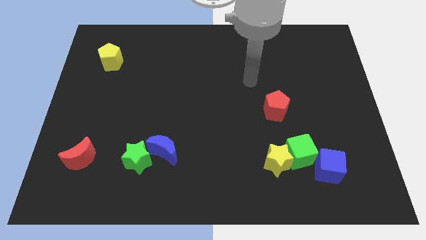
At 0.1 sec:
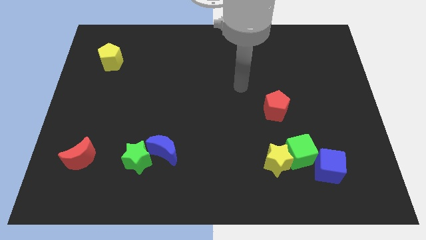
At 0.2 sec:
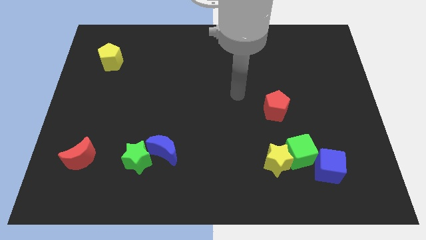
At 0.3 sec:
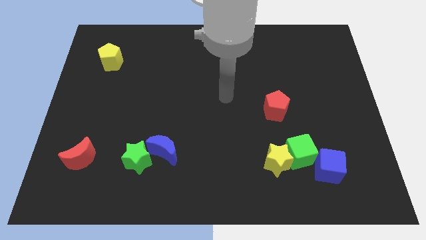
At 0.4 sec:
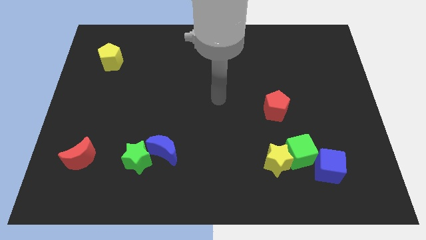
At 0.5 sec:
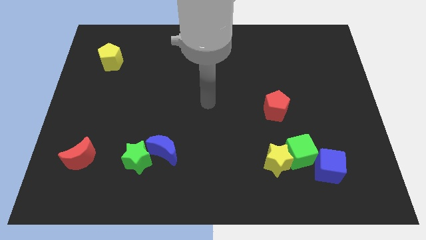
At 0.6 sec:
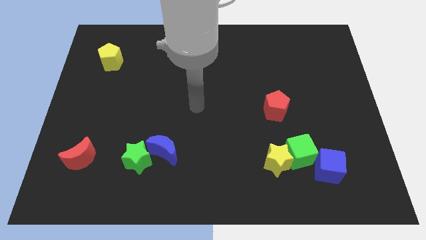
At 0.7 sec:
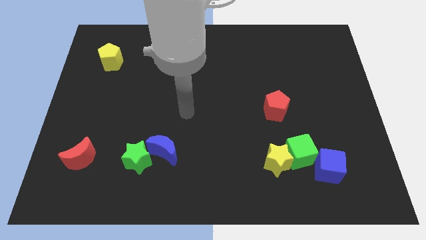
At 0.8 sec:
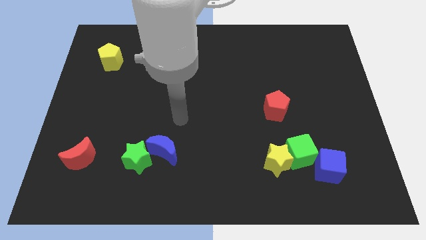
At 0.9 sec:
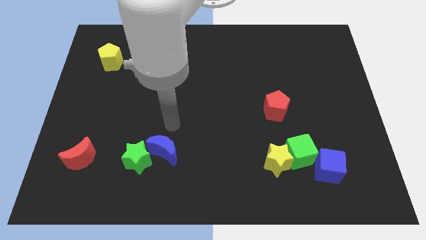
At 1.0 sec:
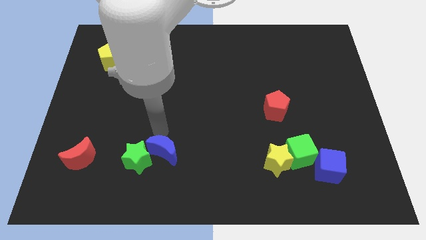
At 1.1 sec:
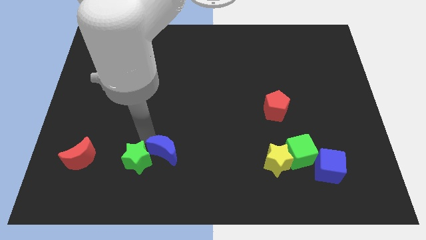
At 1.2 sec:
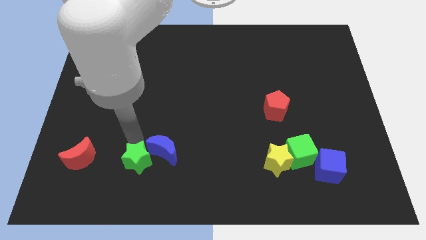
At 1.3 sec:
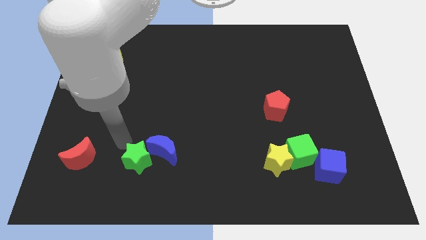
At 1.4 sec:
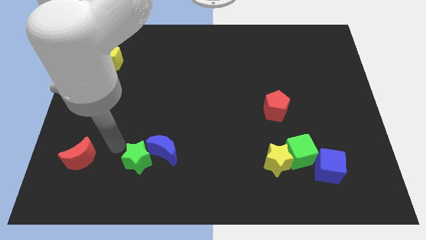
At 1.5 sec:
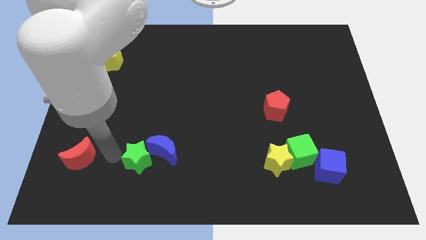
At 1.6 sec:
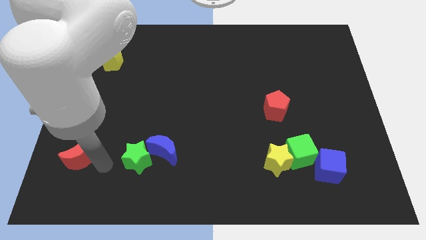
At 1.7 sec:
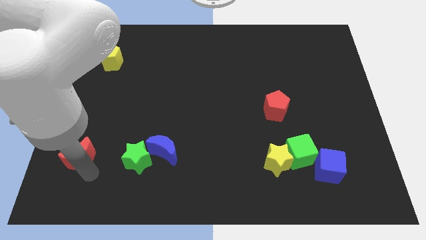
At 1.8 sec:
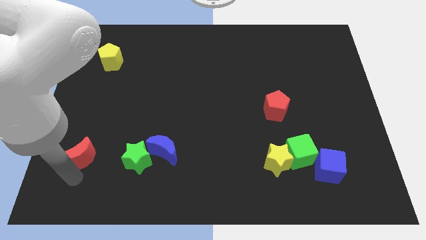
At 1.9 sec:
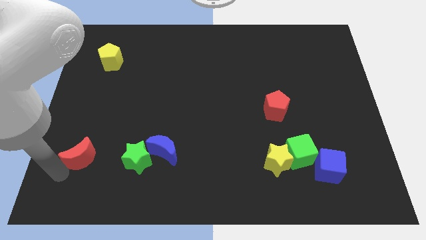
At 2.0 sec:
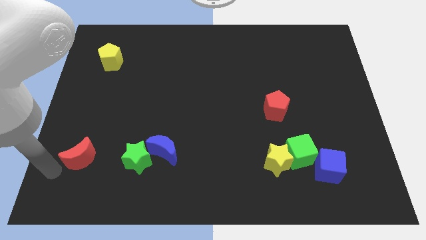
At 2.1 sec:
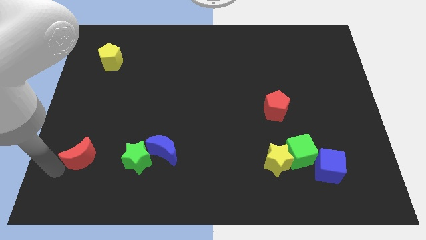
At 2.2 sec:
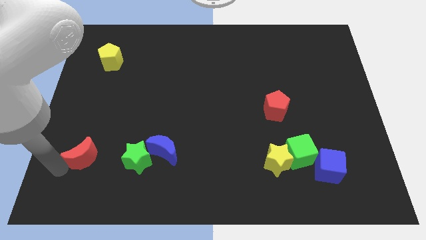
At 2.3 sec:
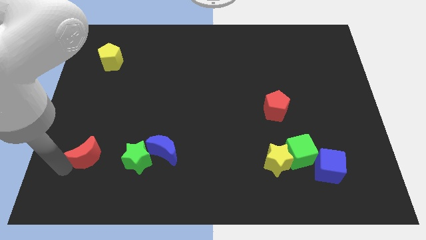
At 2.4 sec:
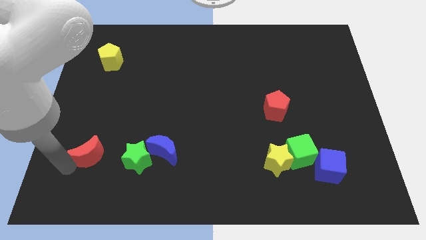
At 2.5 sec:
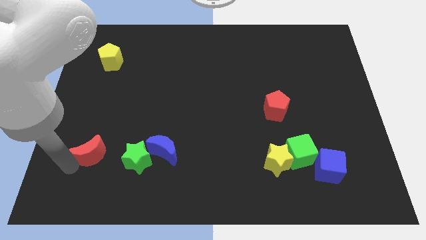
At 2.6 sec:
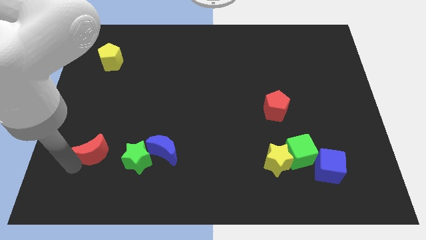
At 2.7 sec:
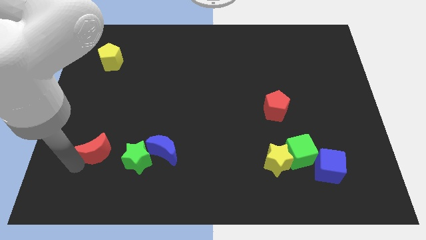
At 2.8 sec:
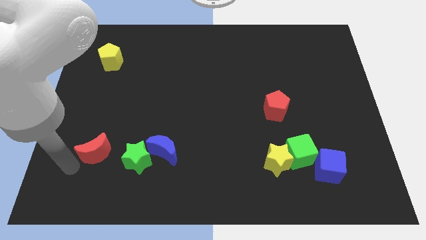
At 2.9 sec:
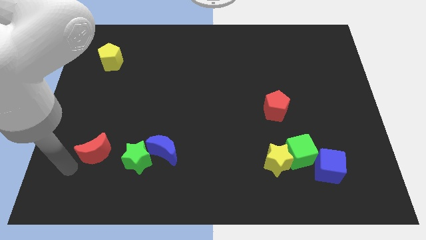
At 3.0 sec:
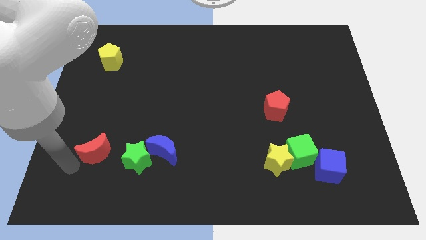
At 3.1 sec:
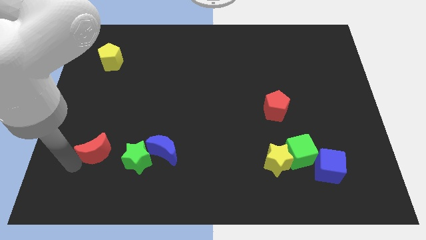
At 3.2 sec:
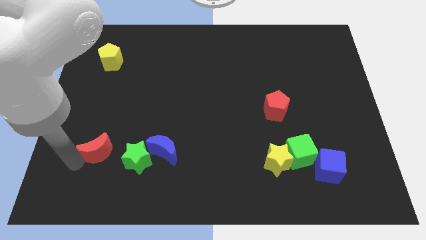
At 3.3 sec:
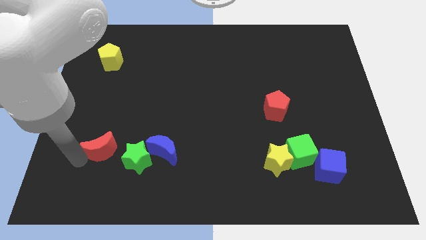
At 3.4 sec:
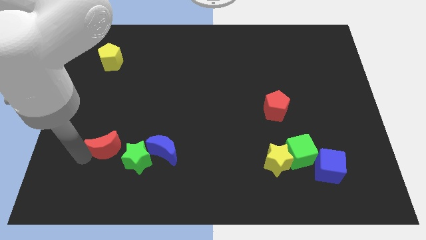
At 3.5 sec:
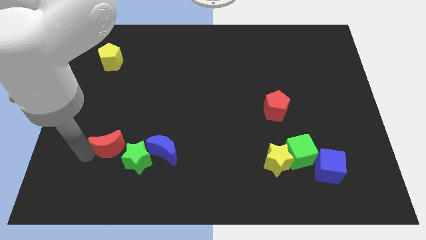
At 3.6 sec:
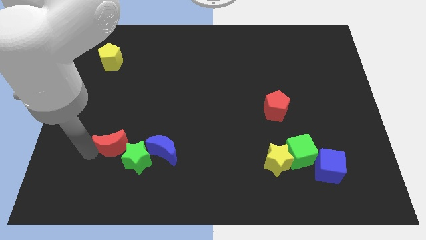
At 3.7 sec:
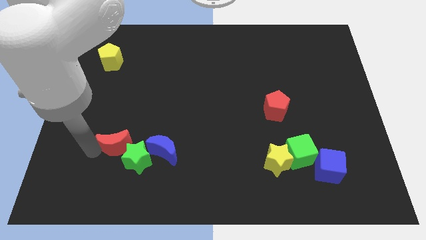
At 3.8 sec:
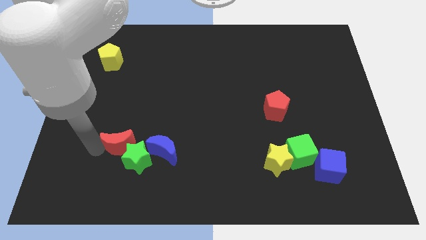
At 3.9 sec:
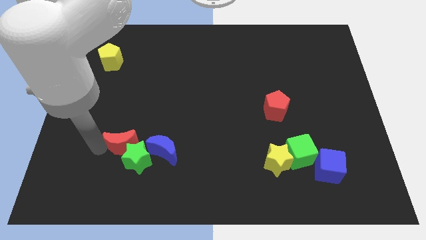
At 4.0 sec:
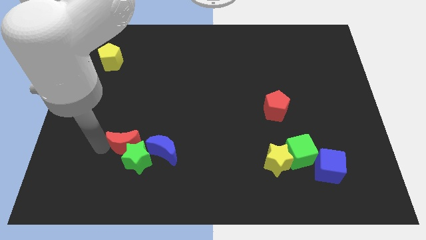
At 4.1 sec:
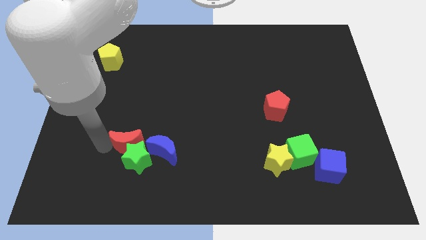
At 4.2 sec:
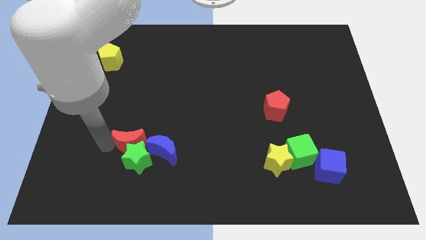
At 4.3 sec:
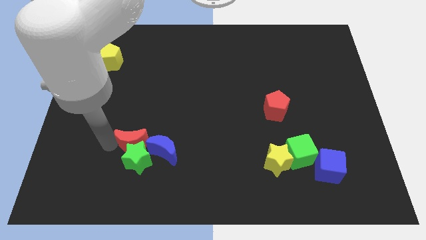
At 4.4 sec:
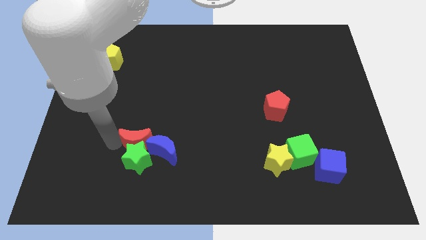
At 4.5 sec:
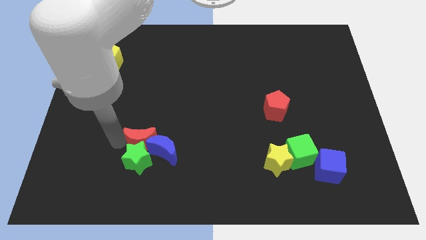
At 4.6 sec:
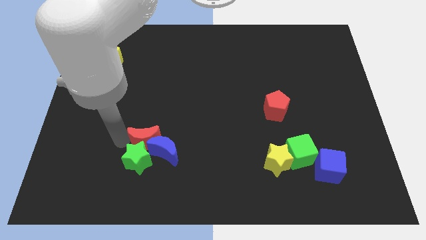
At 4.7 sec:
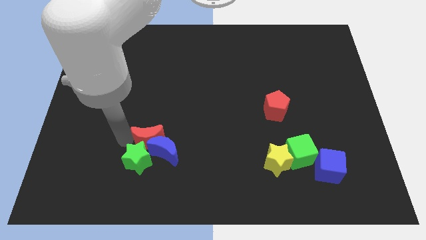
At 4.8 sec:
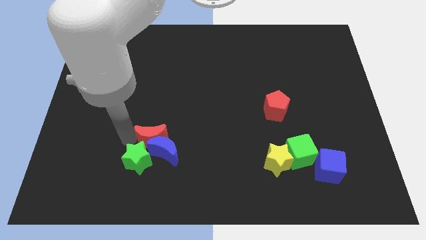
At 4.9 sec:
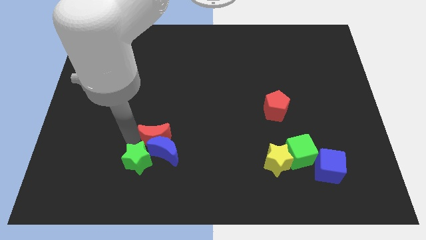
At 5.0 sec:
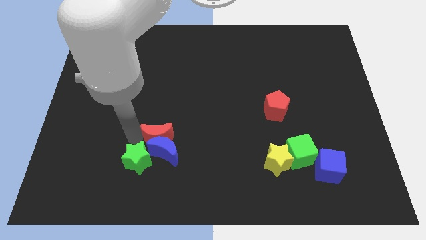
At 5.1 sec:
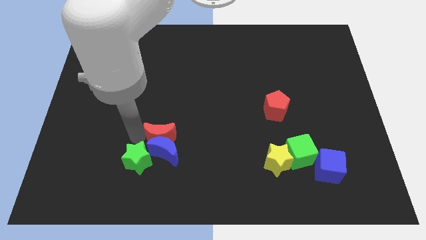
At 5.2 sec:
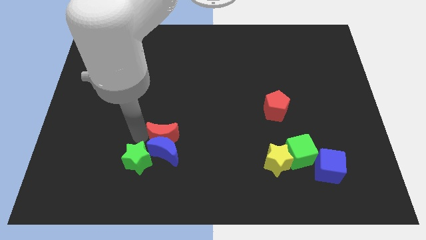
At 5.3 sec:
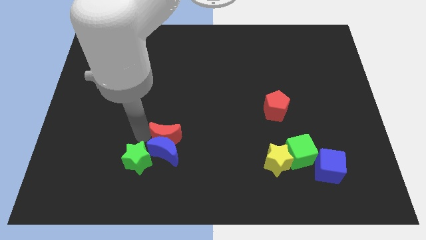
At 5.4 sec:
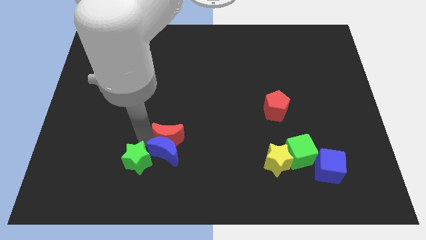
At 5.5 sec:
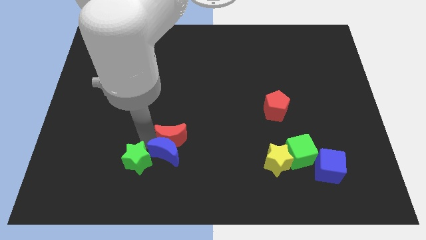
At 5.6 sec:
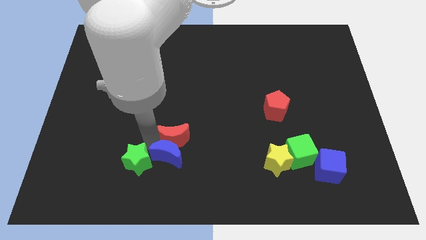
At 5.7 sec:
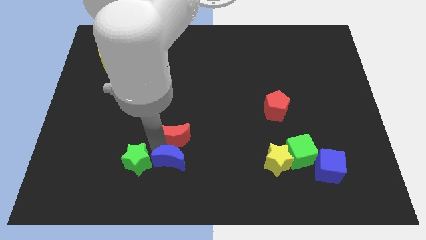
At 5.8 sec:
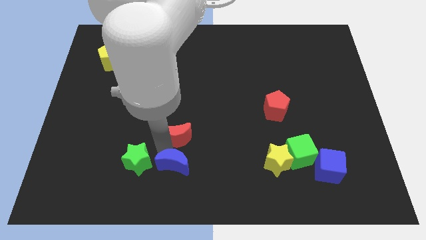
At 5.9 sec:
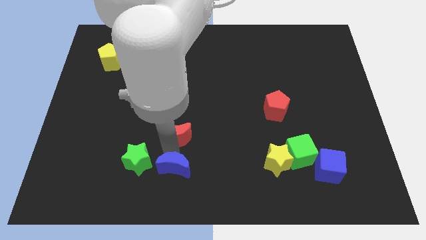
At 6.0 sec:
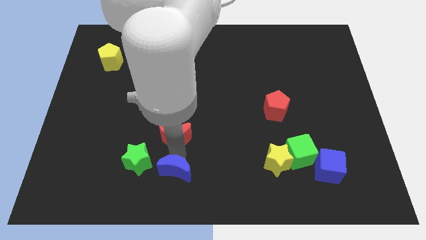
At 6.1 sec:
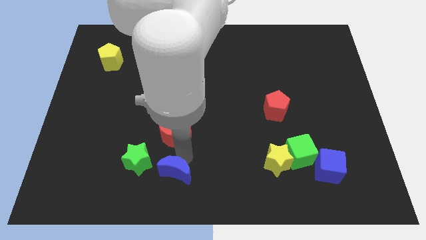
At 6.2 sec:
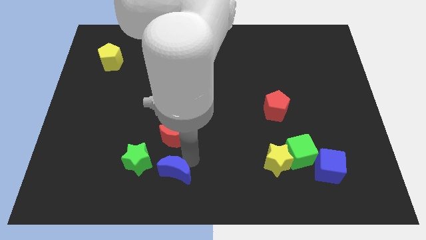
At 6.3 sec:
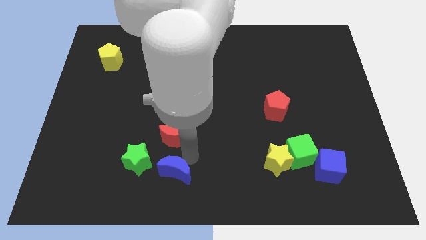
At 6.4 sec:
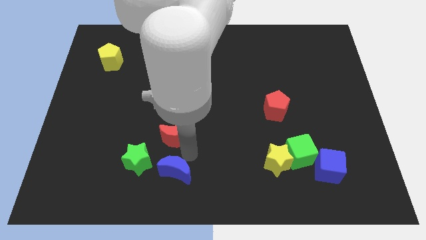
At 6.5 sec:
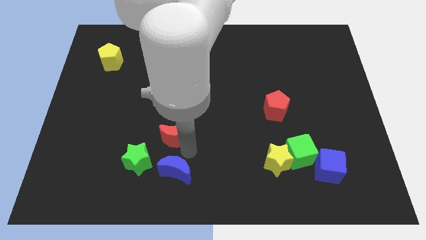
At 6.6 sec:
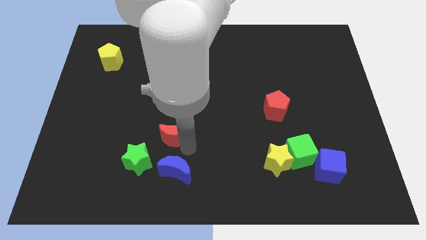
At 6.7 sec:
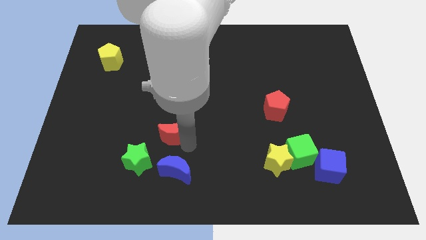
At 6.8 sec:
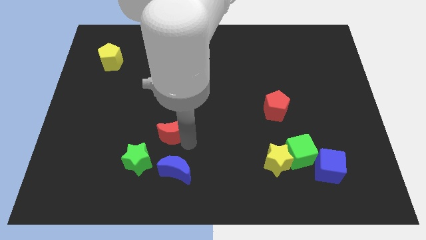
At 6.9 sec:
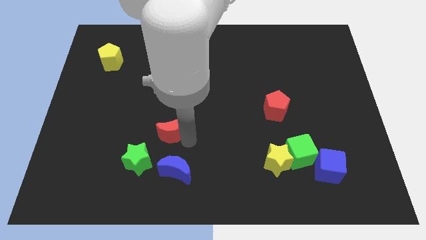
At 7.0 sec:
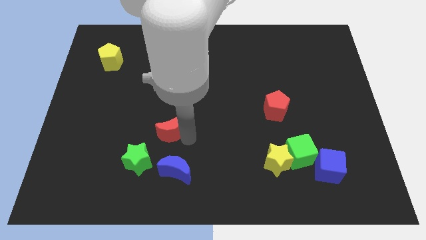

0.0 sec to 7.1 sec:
push the red moon to the center
